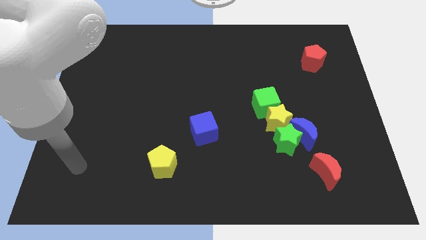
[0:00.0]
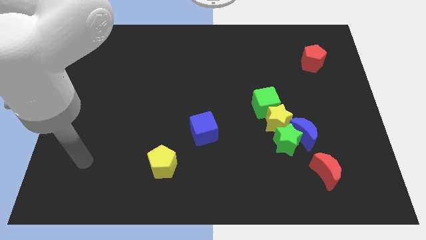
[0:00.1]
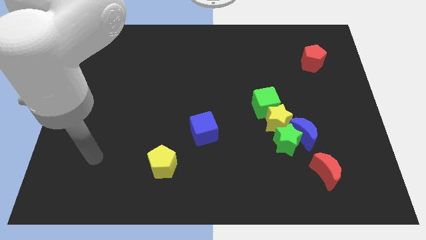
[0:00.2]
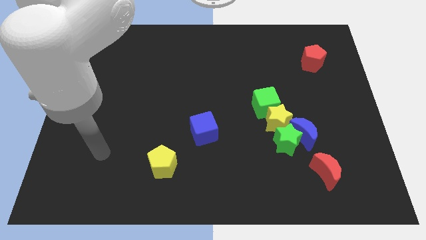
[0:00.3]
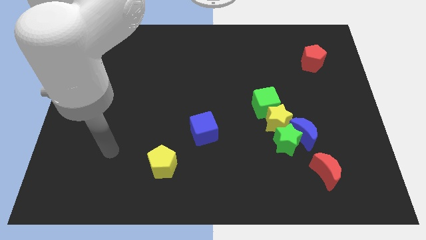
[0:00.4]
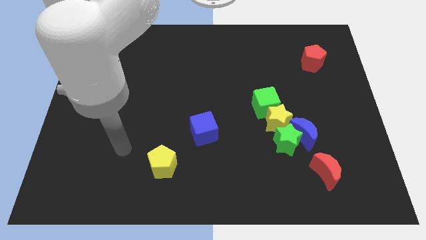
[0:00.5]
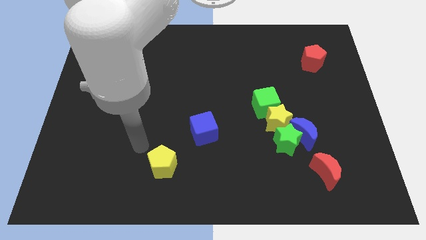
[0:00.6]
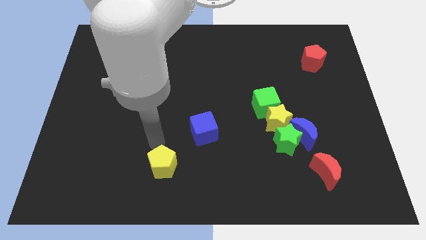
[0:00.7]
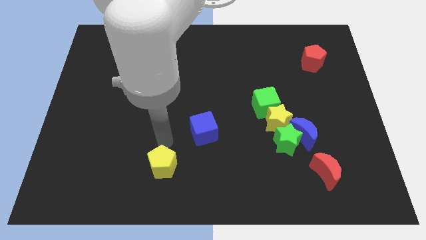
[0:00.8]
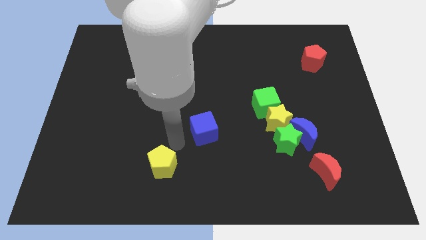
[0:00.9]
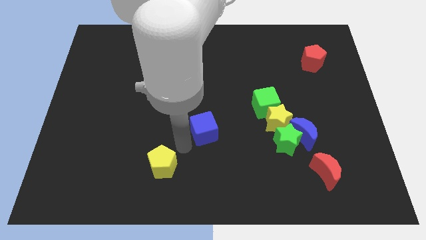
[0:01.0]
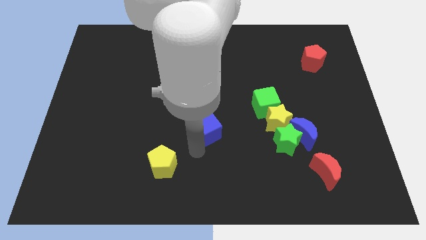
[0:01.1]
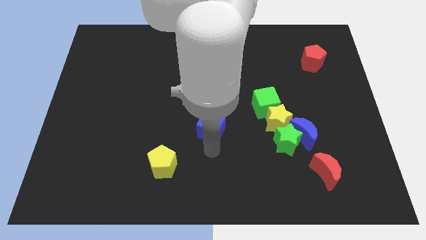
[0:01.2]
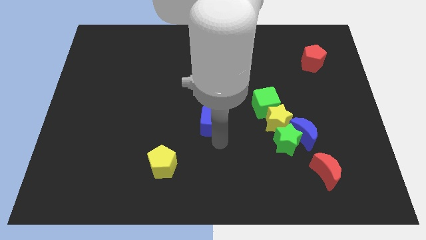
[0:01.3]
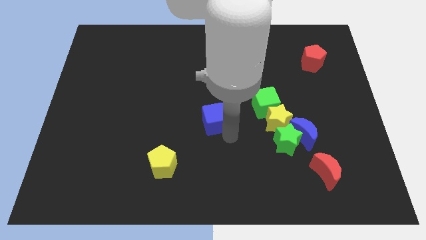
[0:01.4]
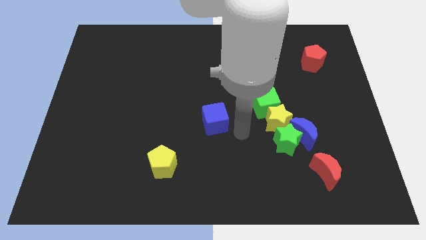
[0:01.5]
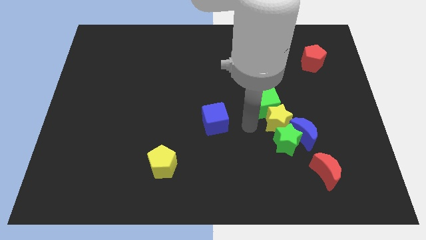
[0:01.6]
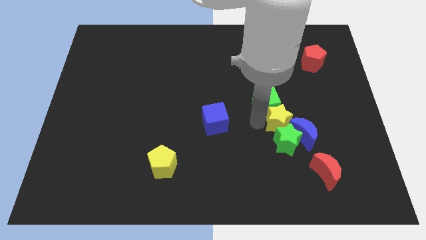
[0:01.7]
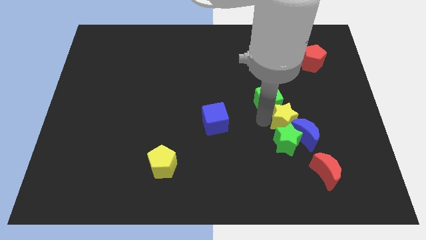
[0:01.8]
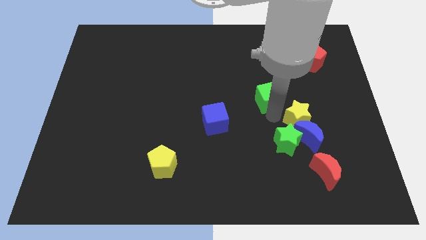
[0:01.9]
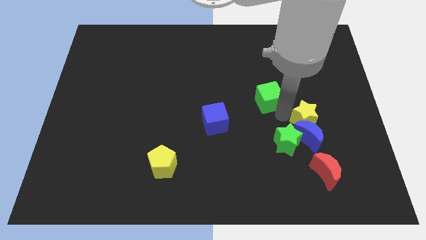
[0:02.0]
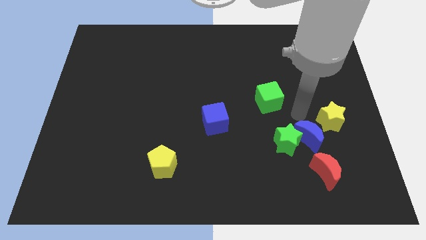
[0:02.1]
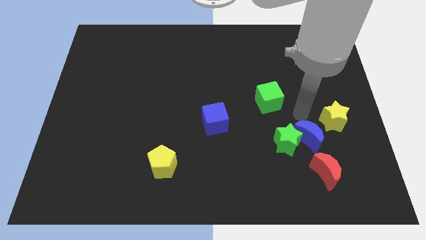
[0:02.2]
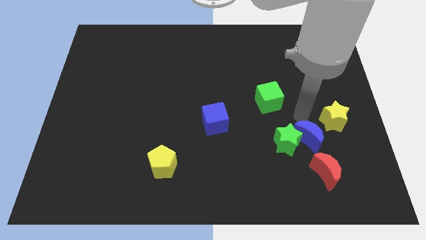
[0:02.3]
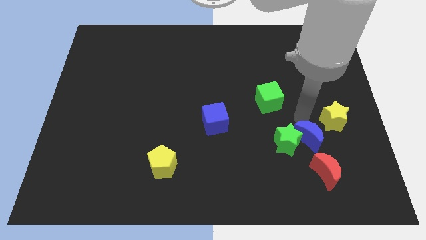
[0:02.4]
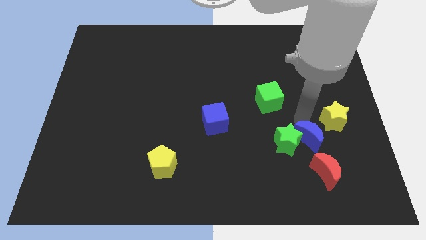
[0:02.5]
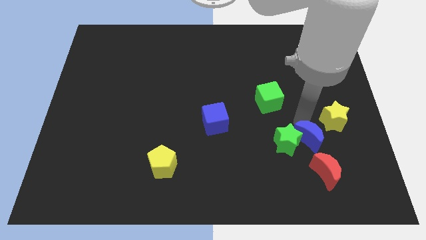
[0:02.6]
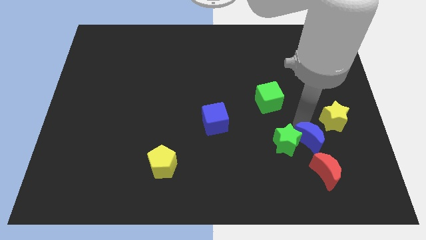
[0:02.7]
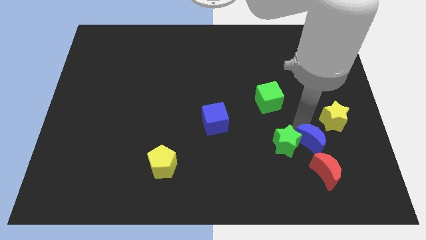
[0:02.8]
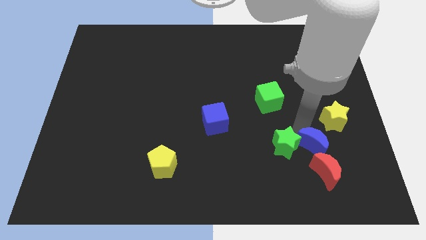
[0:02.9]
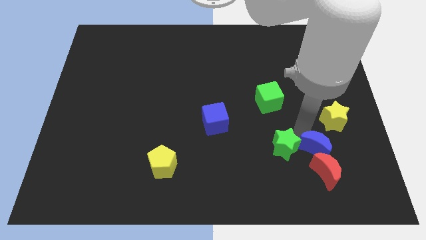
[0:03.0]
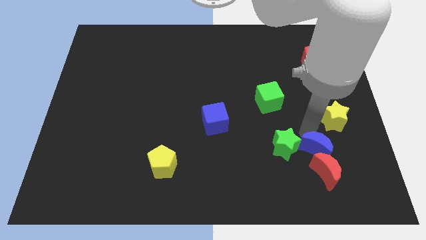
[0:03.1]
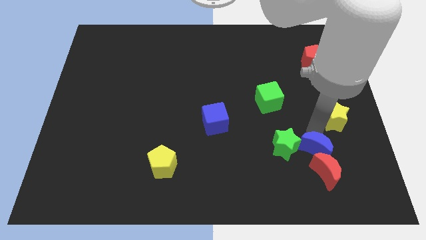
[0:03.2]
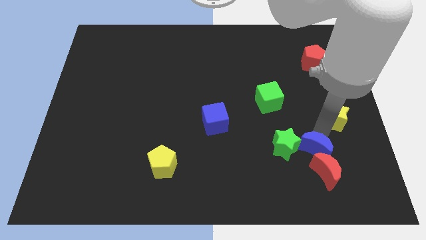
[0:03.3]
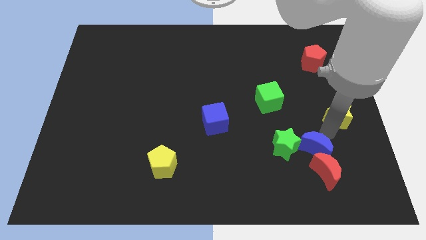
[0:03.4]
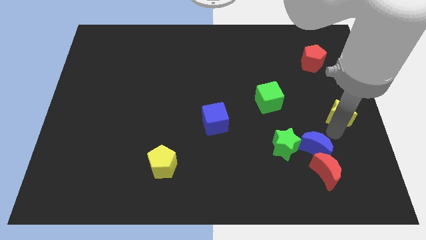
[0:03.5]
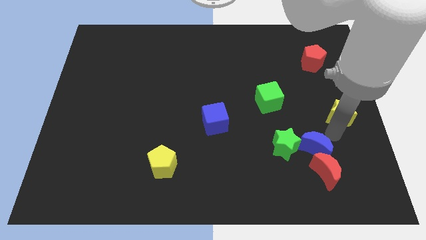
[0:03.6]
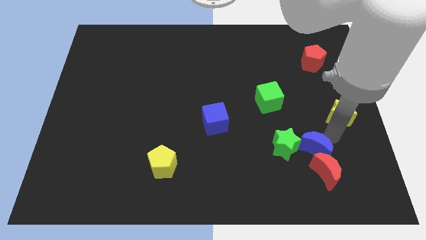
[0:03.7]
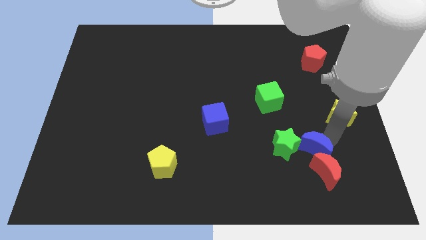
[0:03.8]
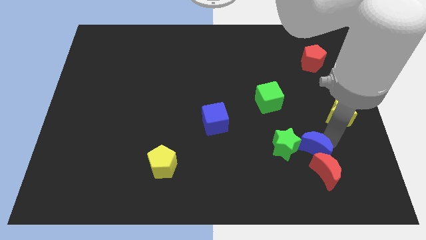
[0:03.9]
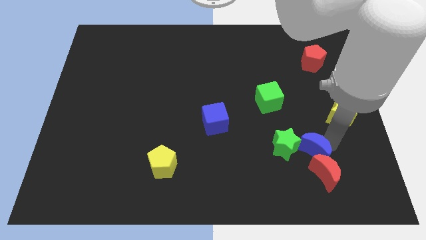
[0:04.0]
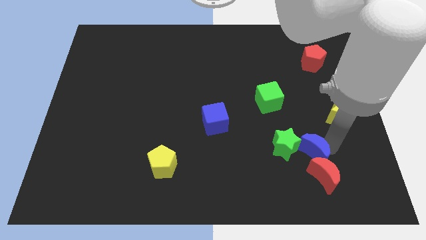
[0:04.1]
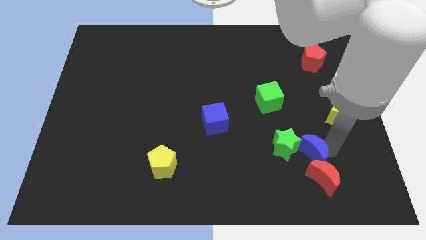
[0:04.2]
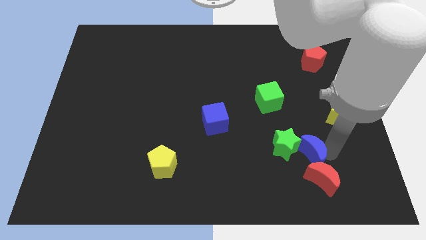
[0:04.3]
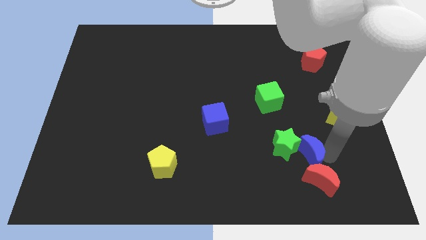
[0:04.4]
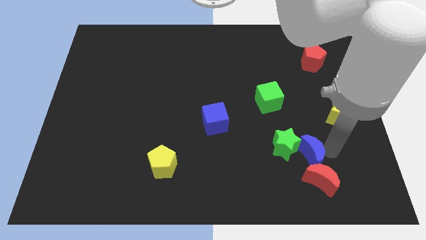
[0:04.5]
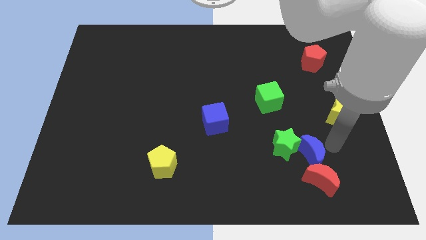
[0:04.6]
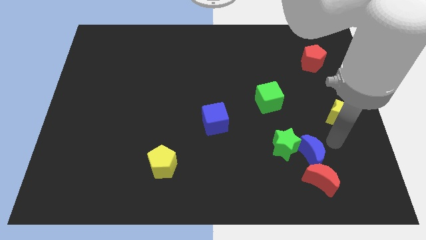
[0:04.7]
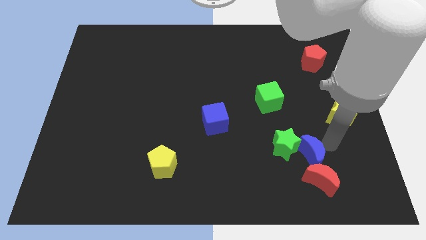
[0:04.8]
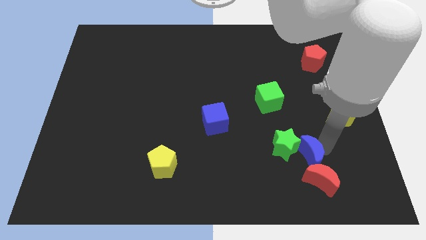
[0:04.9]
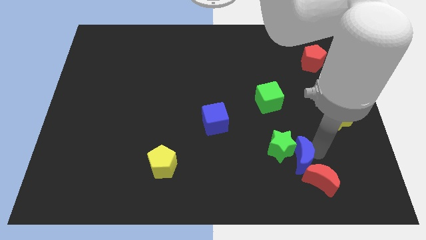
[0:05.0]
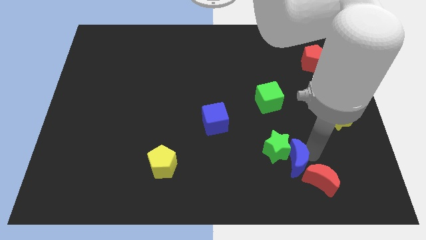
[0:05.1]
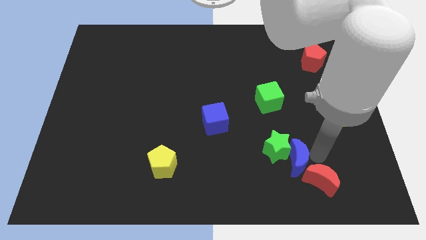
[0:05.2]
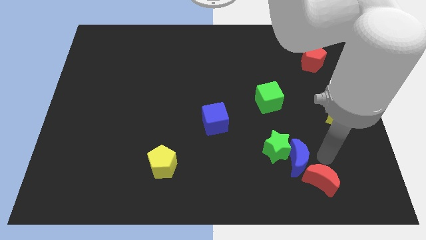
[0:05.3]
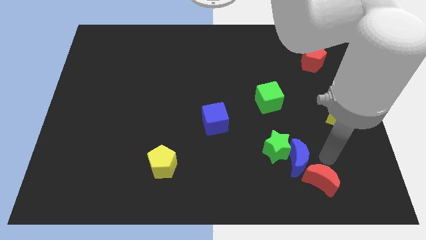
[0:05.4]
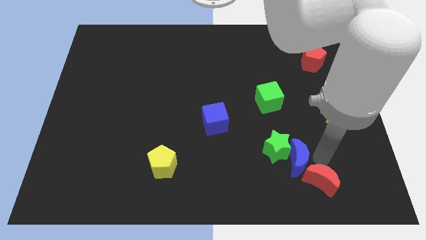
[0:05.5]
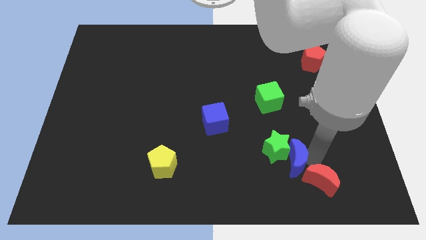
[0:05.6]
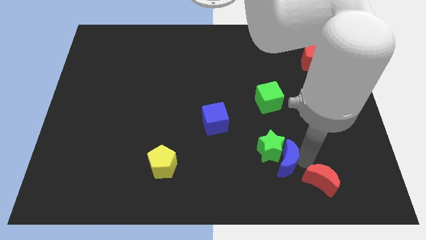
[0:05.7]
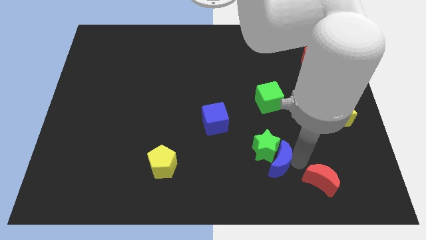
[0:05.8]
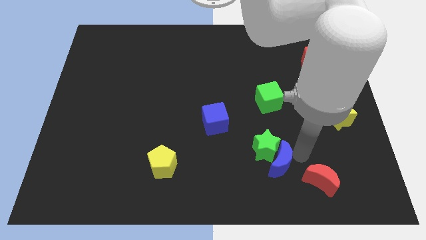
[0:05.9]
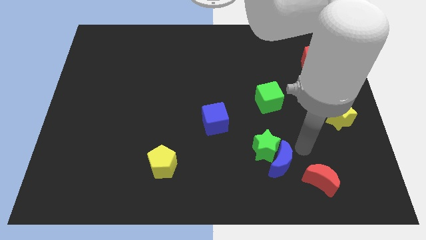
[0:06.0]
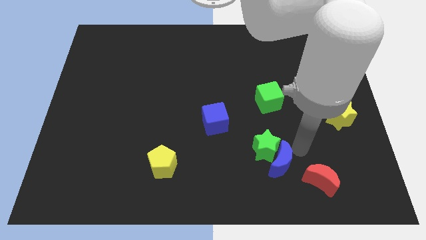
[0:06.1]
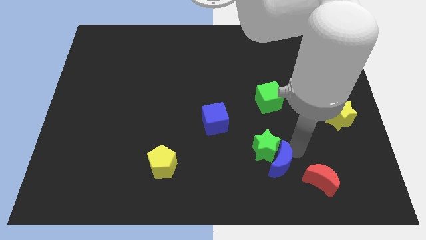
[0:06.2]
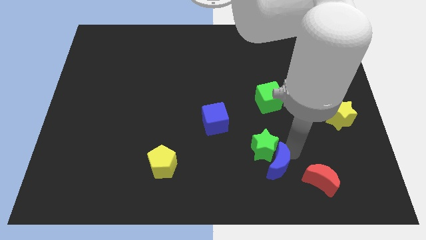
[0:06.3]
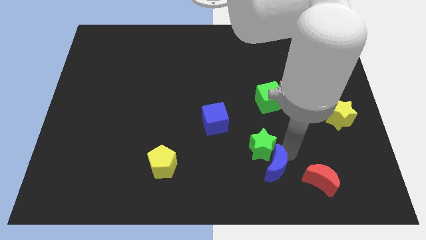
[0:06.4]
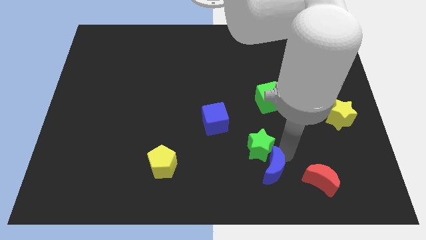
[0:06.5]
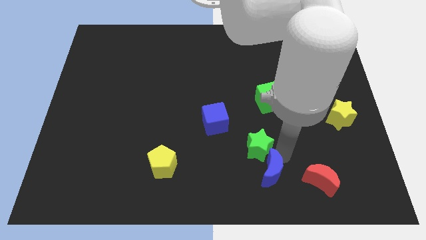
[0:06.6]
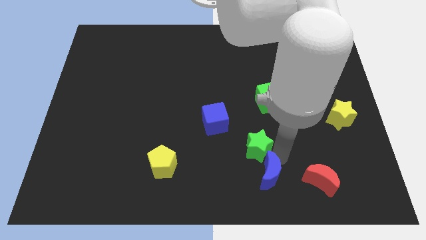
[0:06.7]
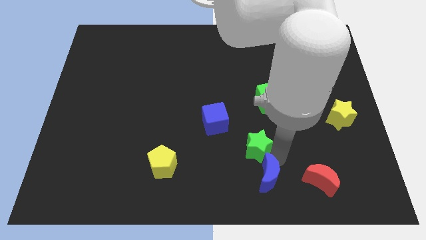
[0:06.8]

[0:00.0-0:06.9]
push the blue moon to the bottom side
